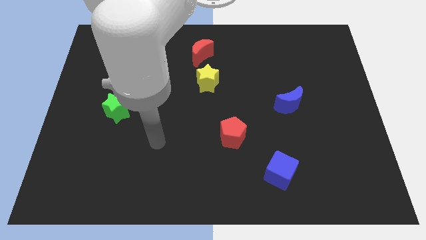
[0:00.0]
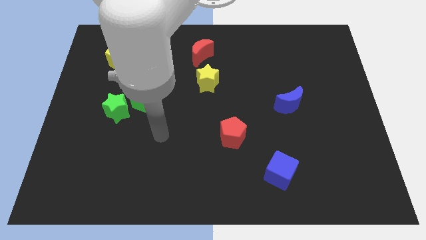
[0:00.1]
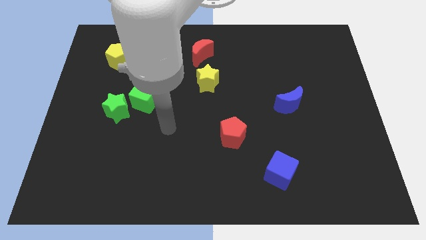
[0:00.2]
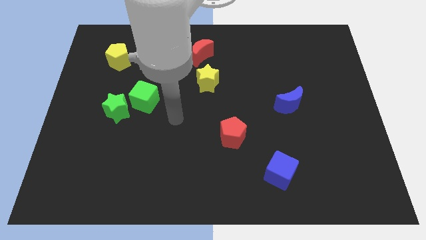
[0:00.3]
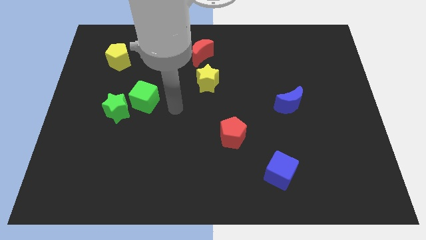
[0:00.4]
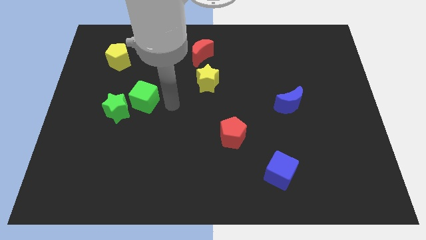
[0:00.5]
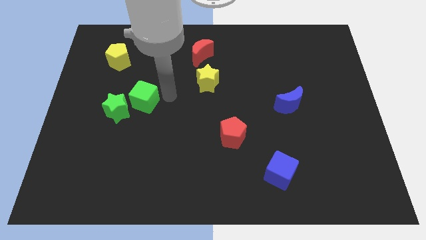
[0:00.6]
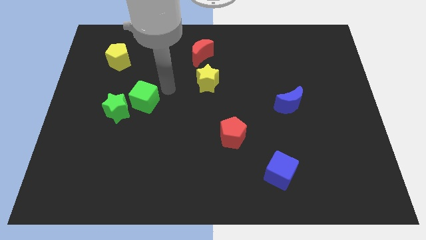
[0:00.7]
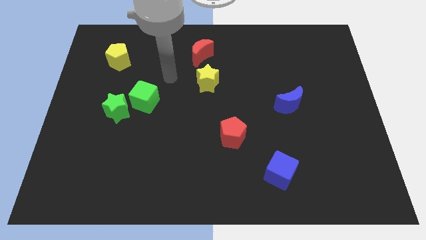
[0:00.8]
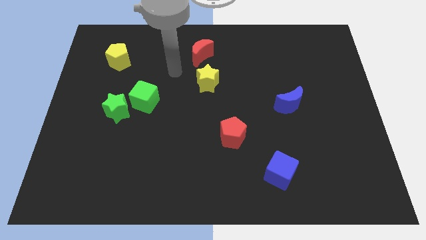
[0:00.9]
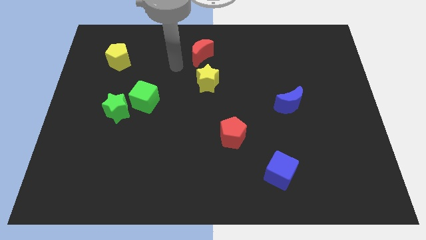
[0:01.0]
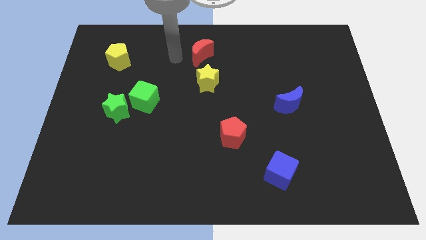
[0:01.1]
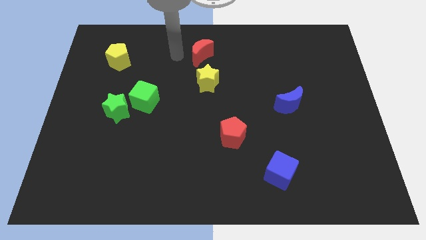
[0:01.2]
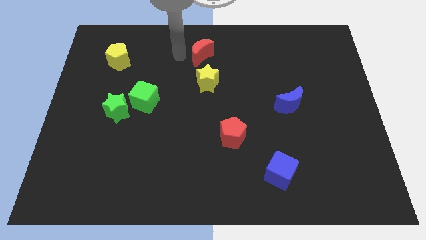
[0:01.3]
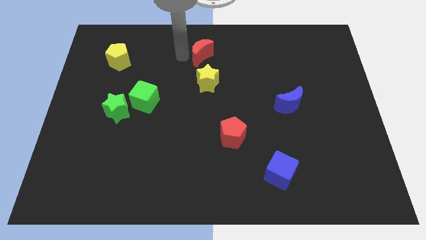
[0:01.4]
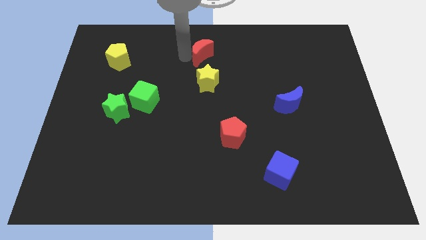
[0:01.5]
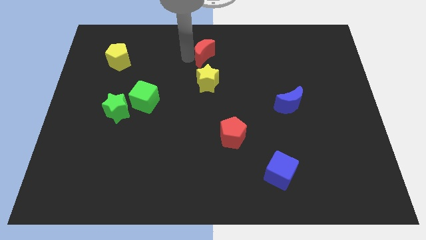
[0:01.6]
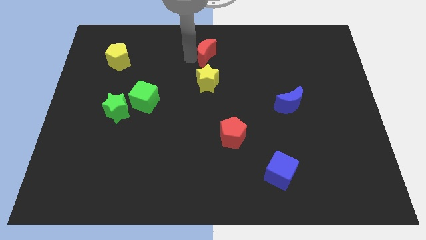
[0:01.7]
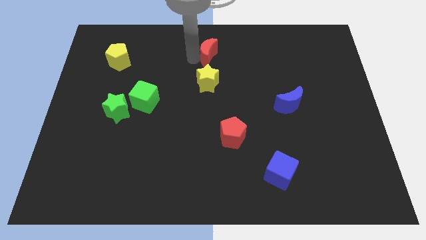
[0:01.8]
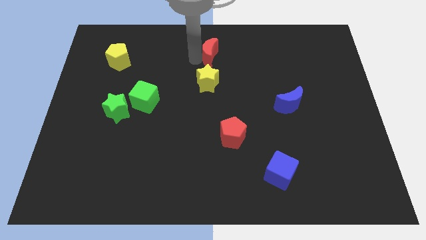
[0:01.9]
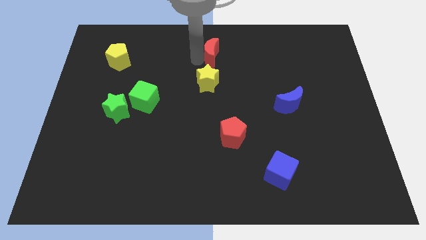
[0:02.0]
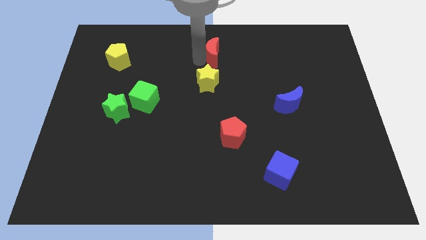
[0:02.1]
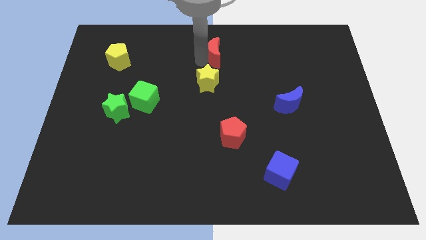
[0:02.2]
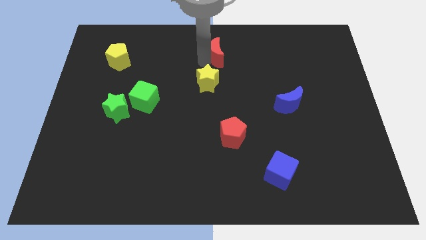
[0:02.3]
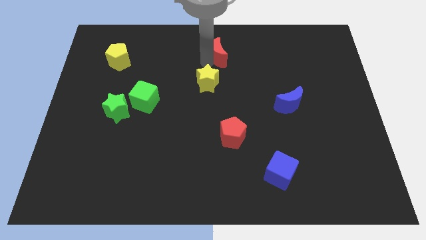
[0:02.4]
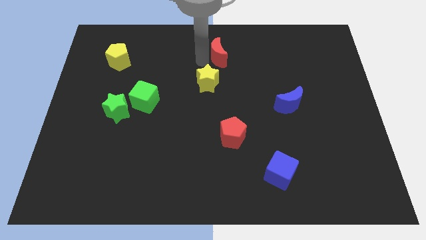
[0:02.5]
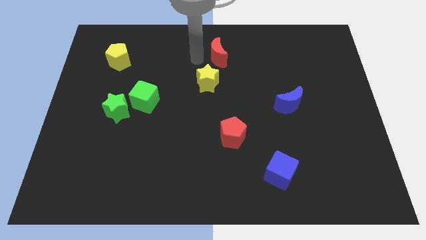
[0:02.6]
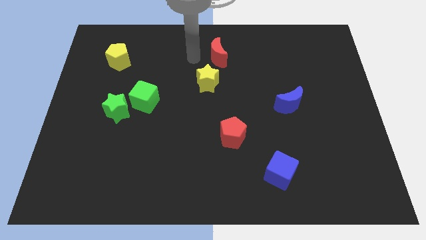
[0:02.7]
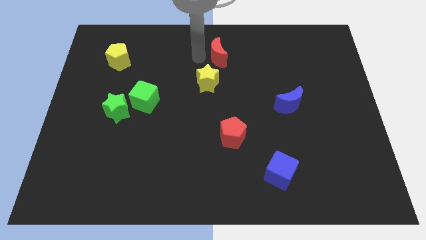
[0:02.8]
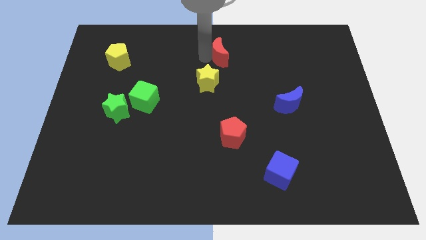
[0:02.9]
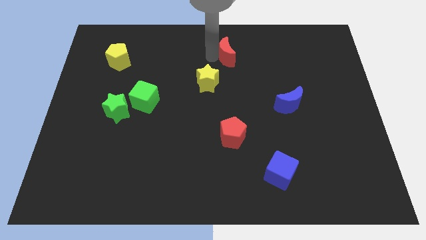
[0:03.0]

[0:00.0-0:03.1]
slide the red moon slightly to the right

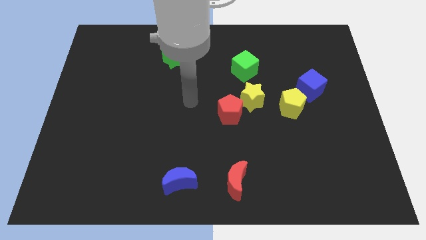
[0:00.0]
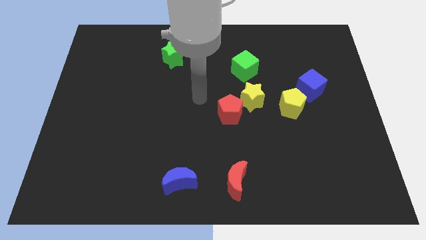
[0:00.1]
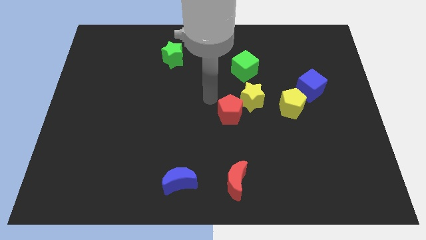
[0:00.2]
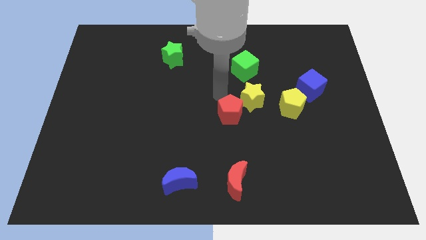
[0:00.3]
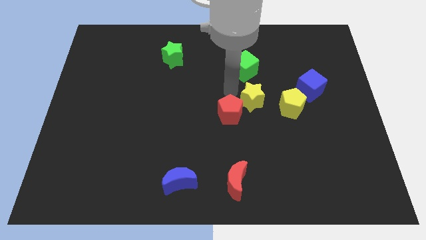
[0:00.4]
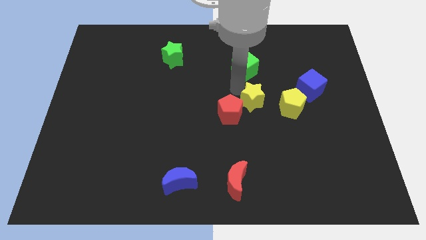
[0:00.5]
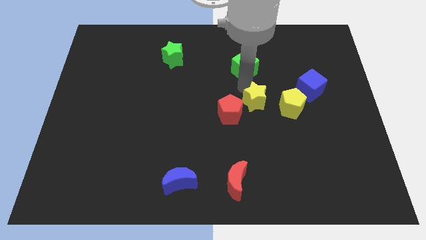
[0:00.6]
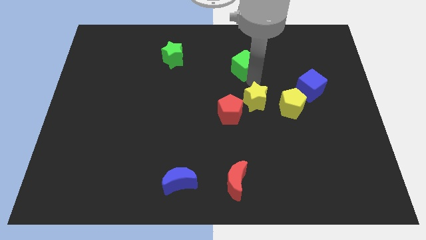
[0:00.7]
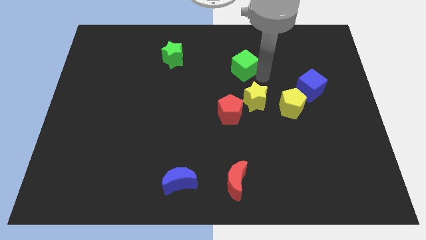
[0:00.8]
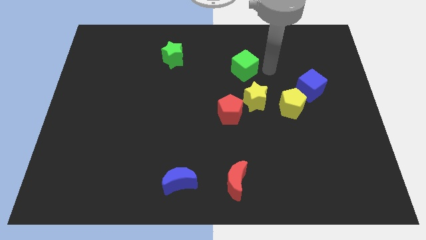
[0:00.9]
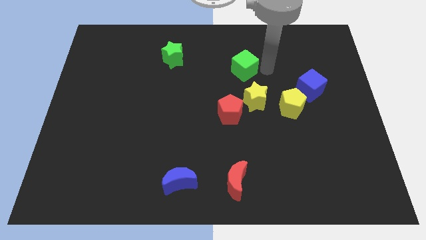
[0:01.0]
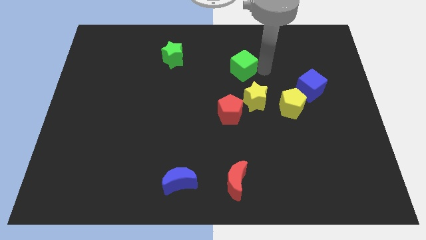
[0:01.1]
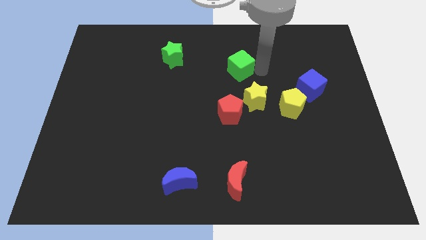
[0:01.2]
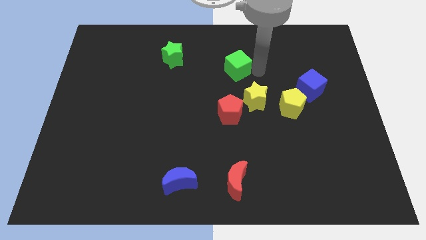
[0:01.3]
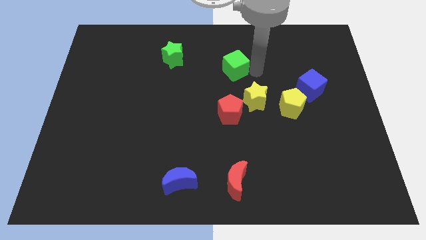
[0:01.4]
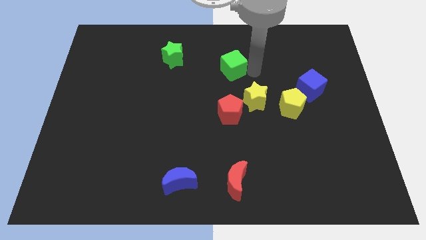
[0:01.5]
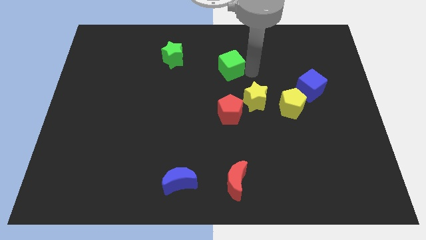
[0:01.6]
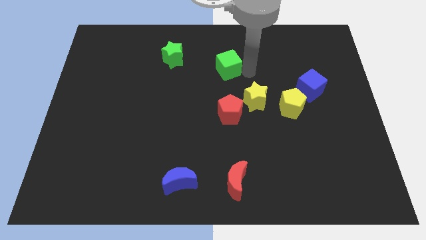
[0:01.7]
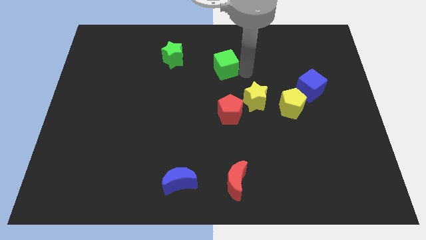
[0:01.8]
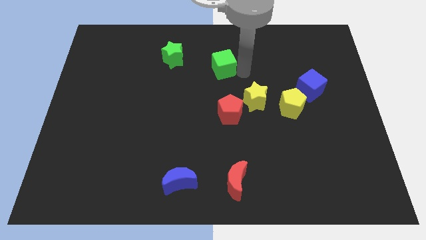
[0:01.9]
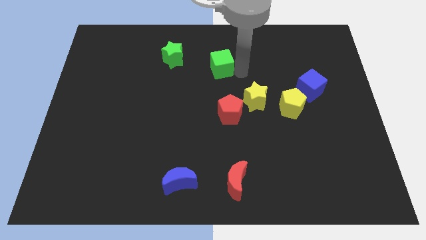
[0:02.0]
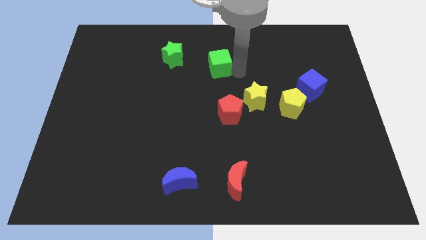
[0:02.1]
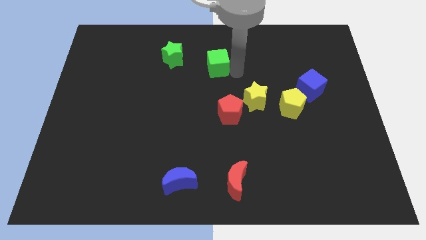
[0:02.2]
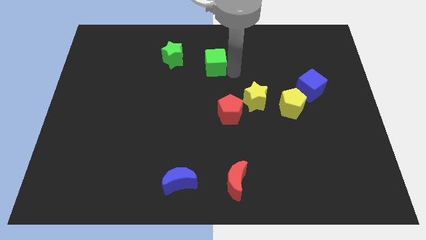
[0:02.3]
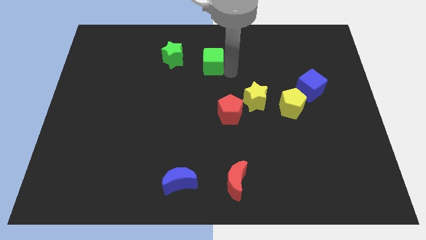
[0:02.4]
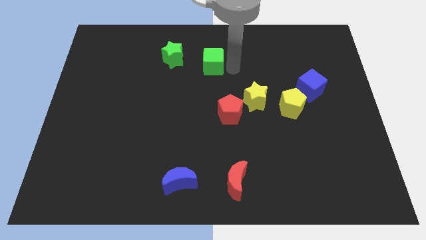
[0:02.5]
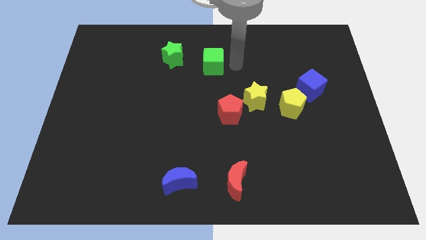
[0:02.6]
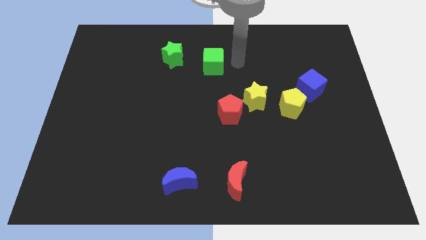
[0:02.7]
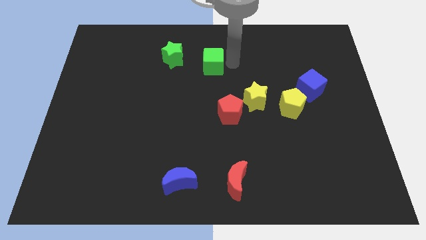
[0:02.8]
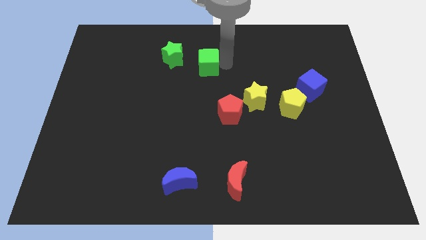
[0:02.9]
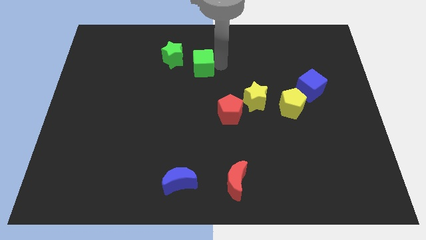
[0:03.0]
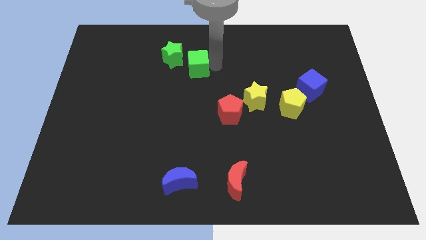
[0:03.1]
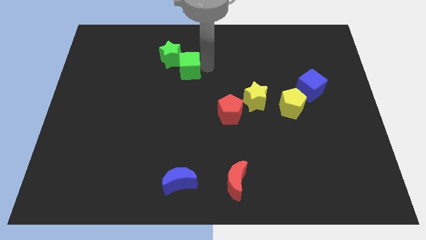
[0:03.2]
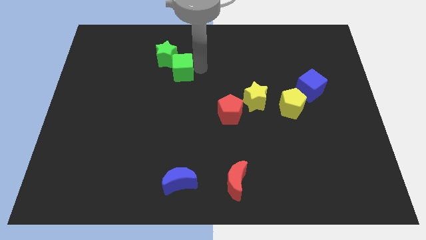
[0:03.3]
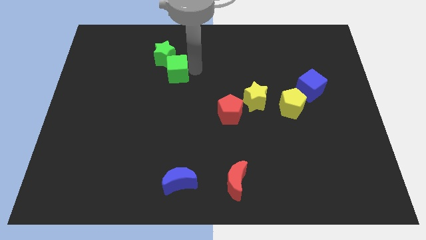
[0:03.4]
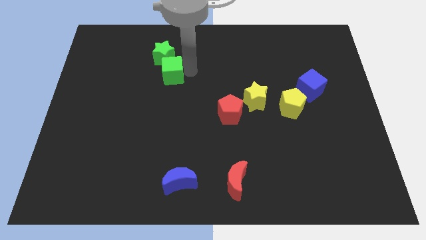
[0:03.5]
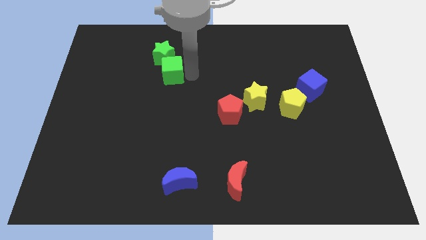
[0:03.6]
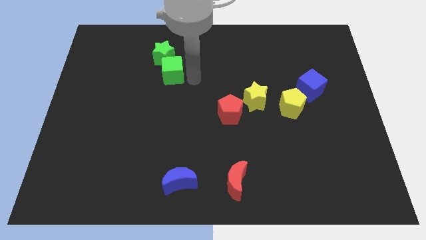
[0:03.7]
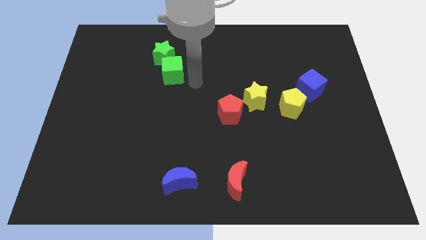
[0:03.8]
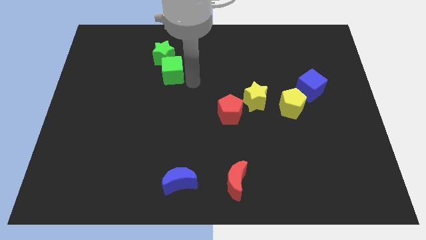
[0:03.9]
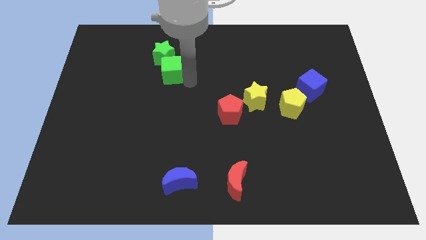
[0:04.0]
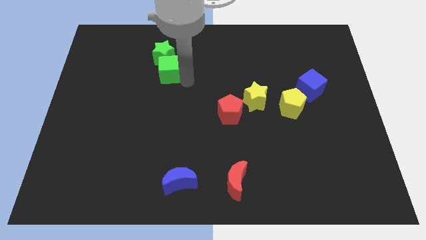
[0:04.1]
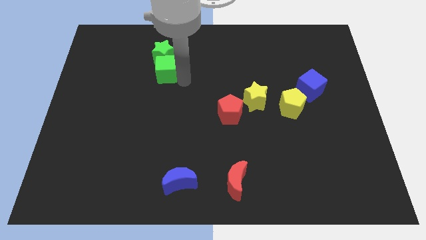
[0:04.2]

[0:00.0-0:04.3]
move the green cube to the left

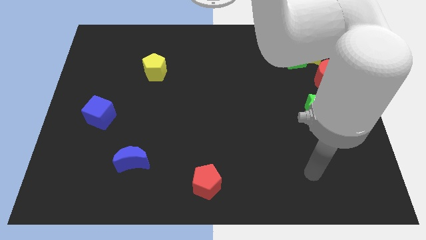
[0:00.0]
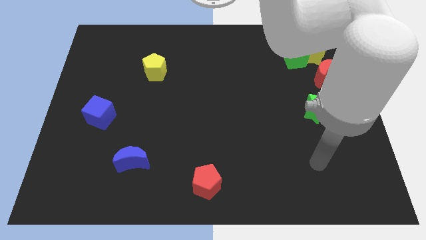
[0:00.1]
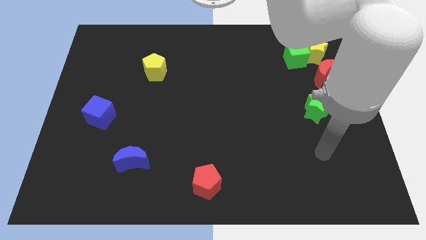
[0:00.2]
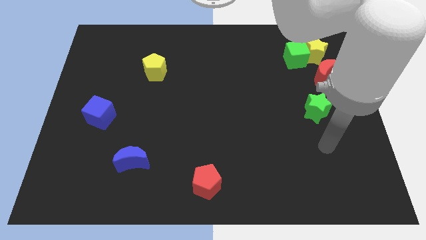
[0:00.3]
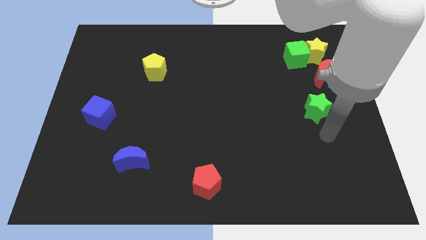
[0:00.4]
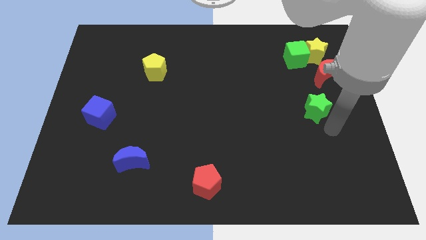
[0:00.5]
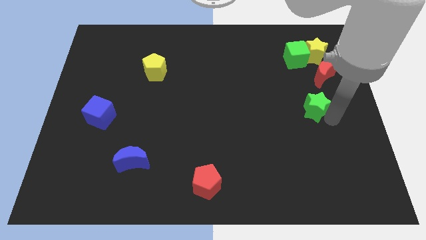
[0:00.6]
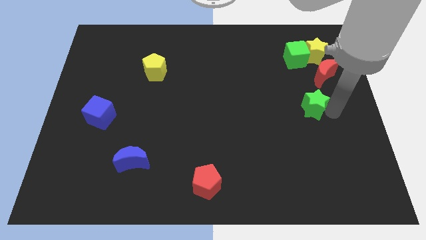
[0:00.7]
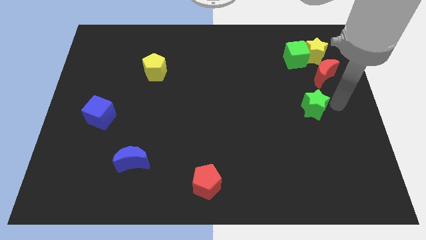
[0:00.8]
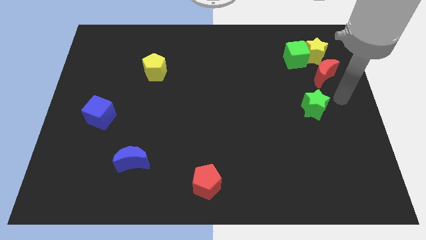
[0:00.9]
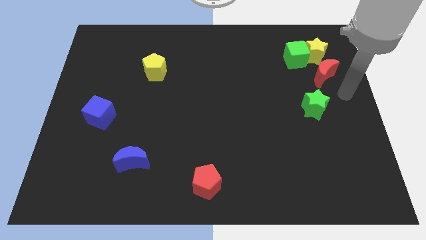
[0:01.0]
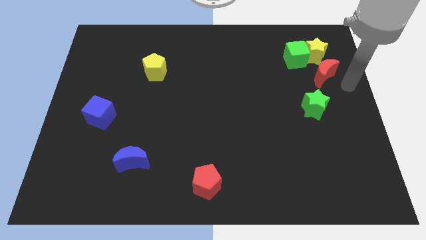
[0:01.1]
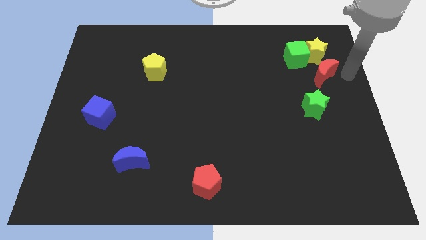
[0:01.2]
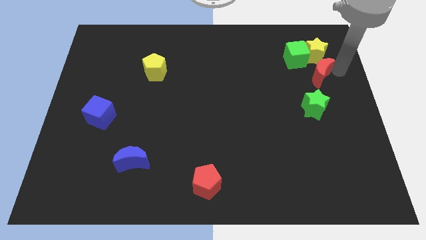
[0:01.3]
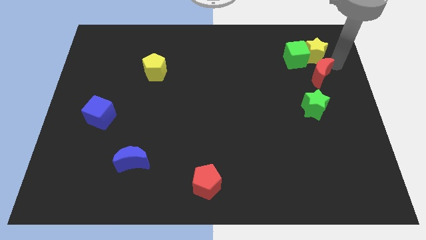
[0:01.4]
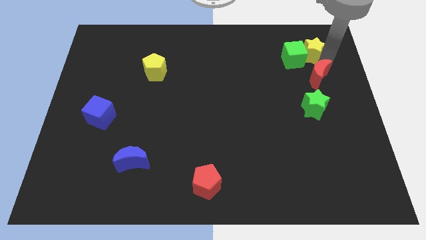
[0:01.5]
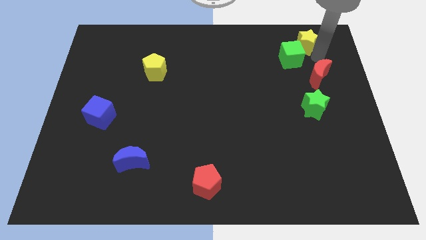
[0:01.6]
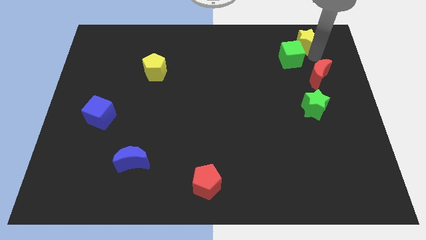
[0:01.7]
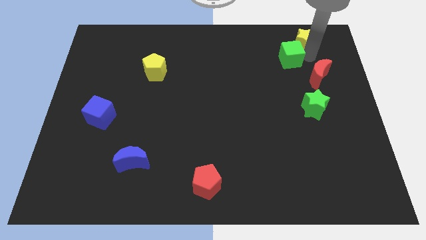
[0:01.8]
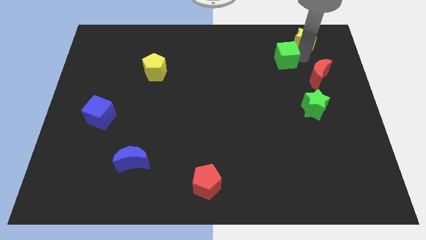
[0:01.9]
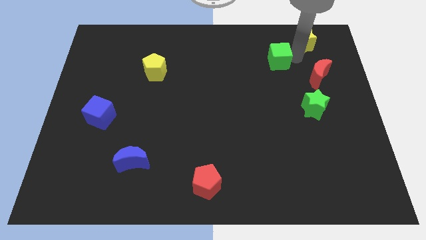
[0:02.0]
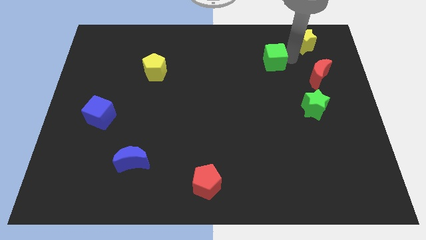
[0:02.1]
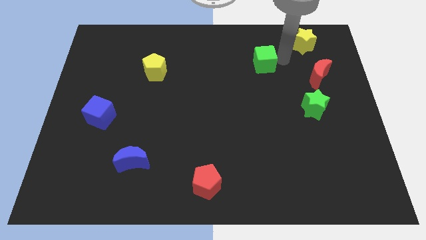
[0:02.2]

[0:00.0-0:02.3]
move the green cube somewhat to the left
